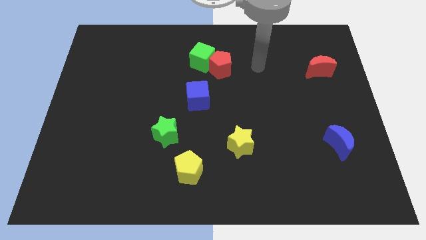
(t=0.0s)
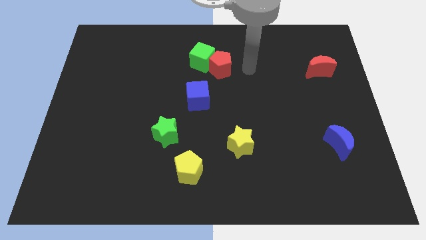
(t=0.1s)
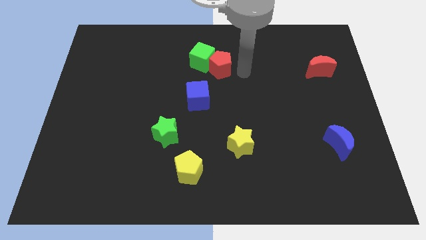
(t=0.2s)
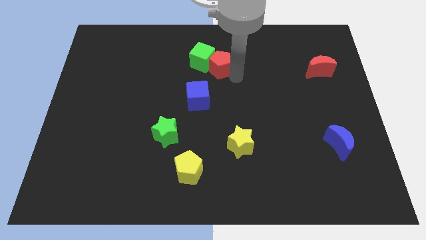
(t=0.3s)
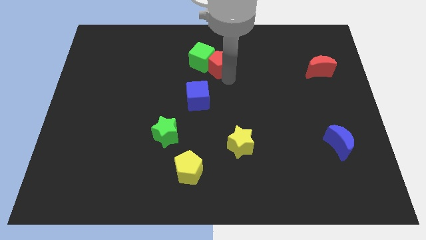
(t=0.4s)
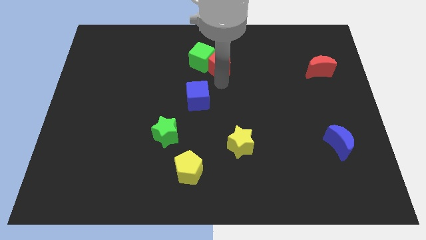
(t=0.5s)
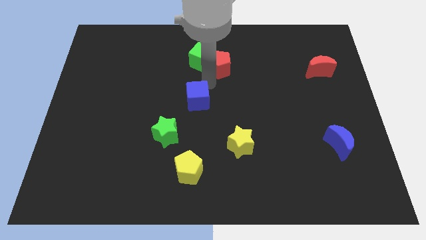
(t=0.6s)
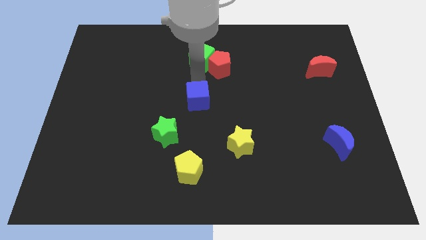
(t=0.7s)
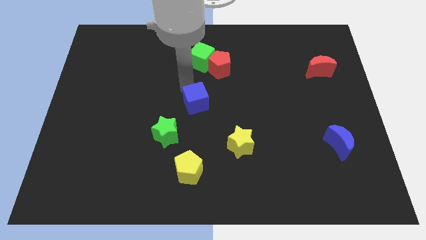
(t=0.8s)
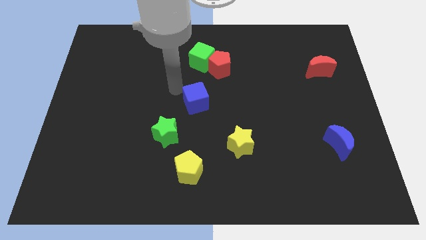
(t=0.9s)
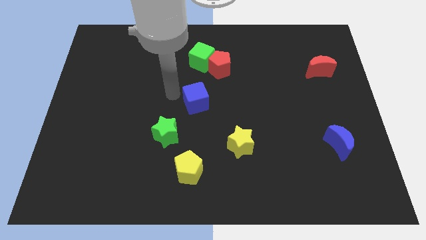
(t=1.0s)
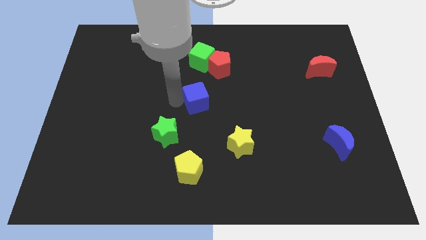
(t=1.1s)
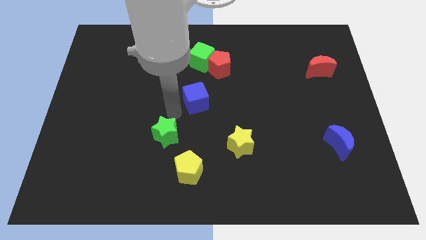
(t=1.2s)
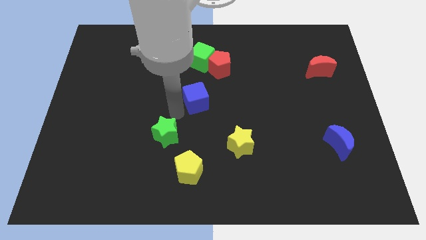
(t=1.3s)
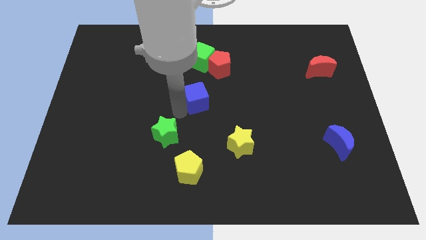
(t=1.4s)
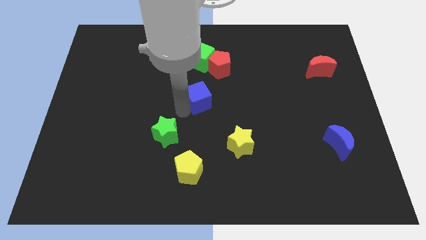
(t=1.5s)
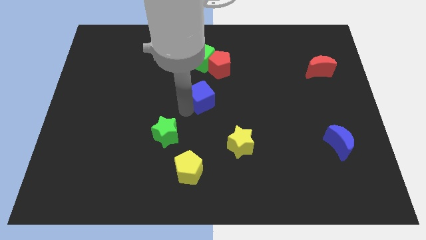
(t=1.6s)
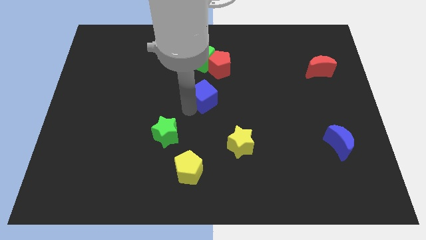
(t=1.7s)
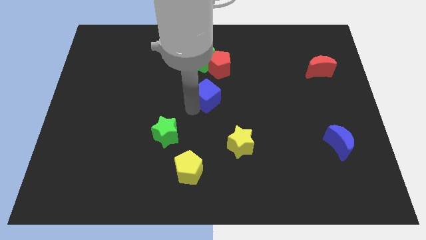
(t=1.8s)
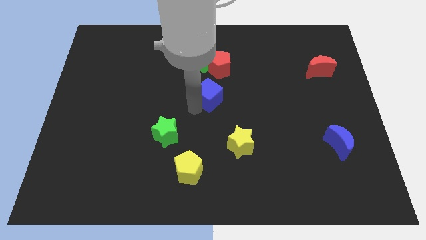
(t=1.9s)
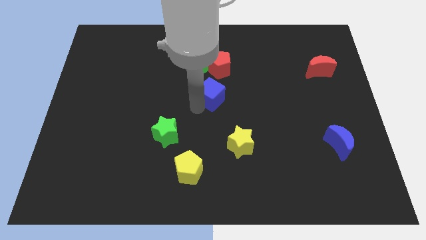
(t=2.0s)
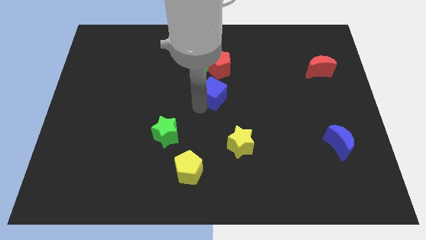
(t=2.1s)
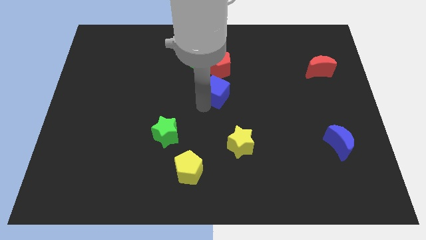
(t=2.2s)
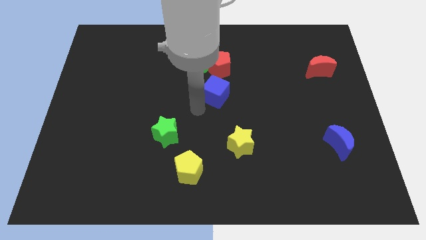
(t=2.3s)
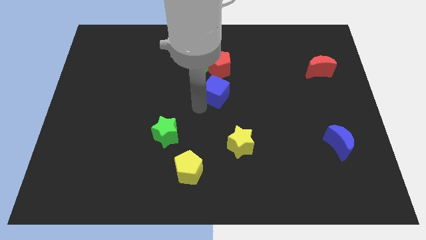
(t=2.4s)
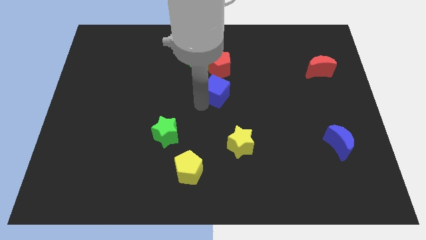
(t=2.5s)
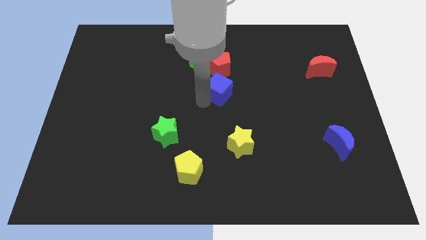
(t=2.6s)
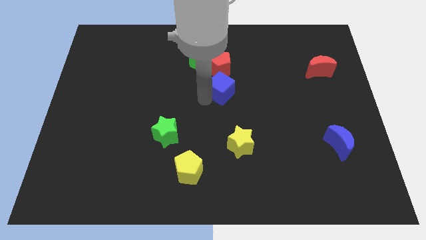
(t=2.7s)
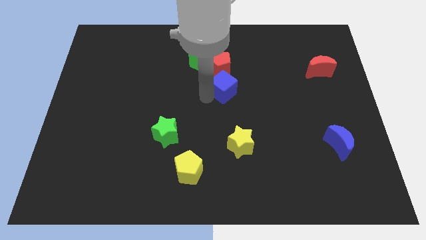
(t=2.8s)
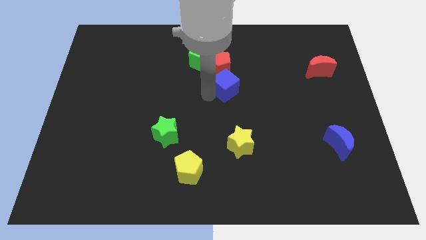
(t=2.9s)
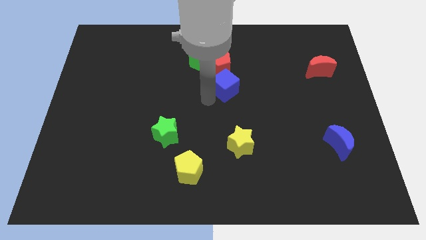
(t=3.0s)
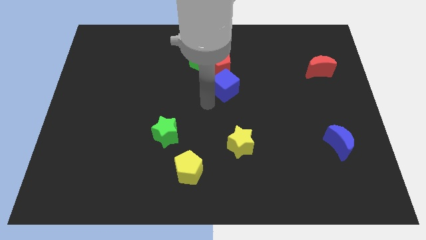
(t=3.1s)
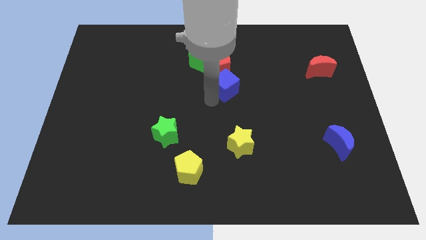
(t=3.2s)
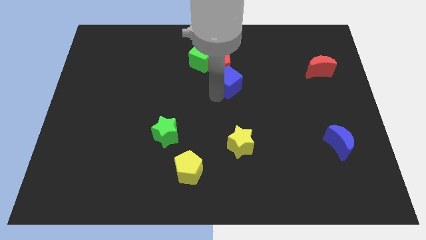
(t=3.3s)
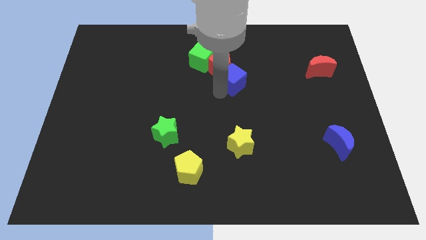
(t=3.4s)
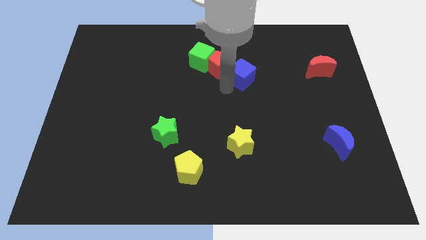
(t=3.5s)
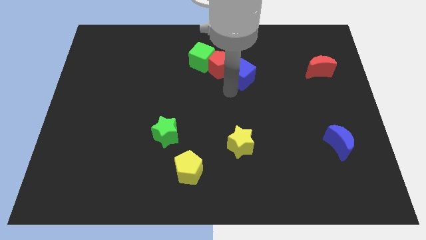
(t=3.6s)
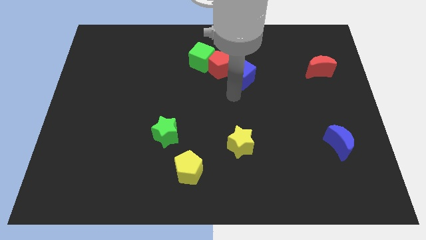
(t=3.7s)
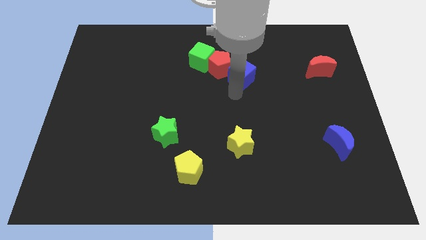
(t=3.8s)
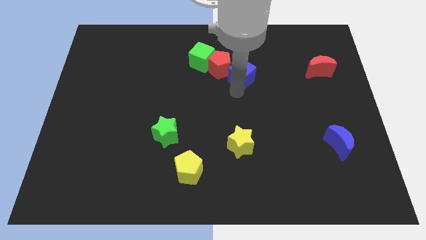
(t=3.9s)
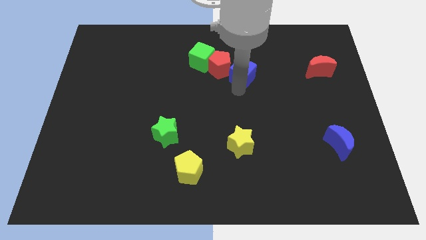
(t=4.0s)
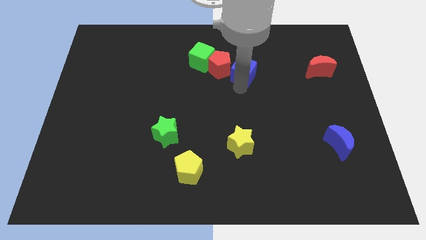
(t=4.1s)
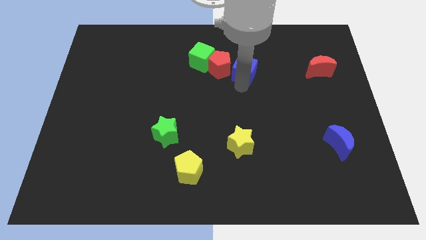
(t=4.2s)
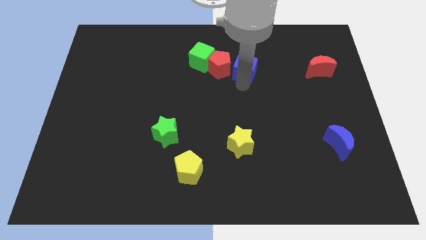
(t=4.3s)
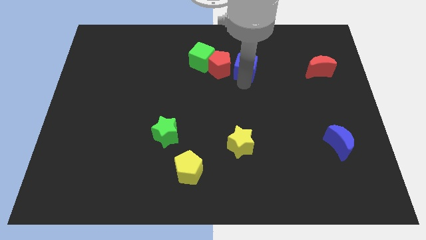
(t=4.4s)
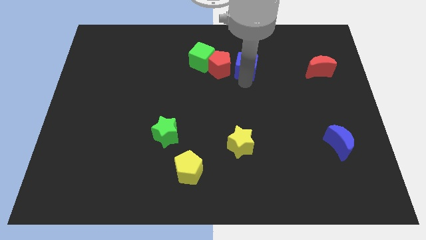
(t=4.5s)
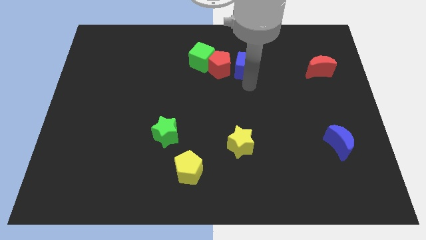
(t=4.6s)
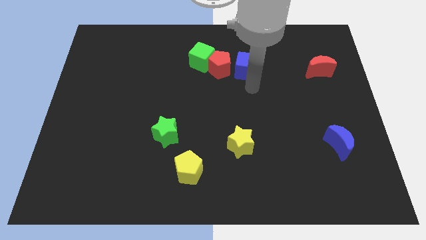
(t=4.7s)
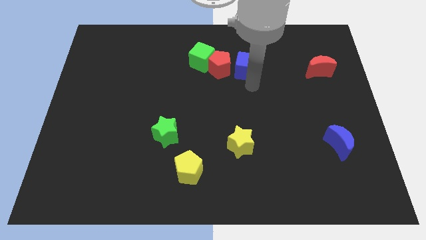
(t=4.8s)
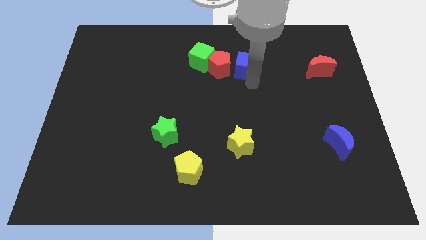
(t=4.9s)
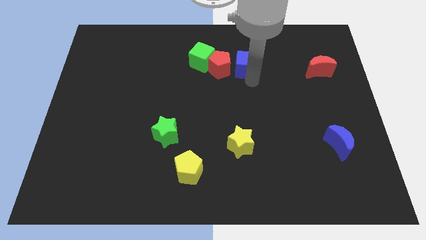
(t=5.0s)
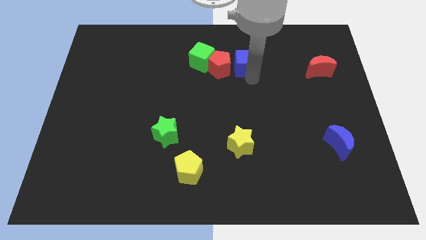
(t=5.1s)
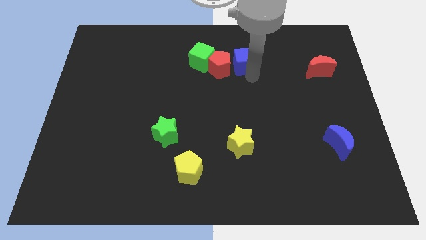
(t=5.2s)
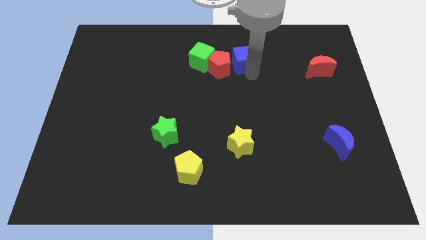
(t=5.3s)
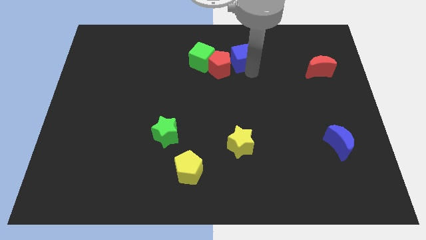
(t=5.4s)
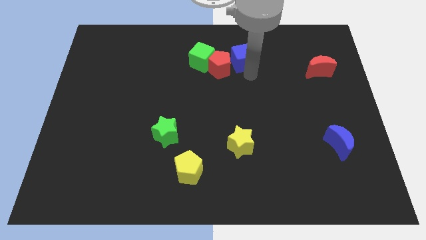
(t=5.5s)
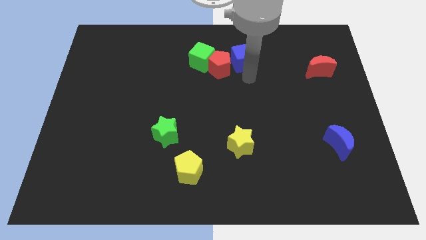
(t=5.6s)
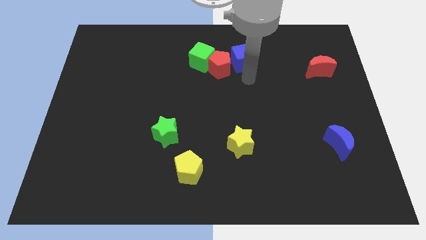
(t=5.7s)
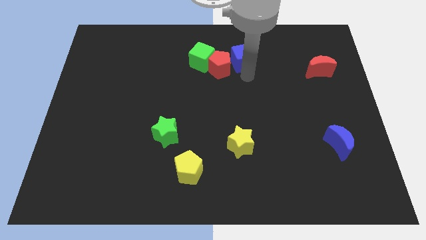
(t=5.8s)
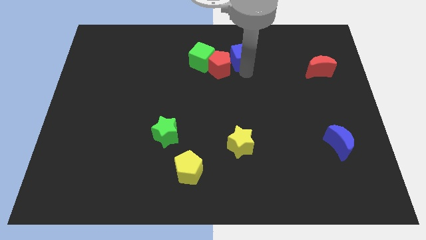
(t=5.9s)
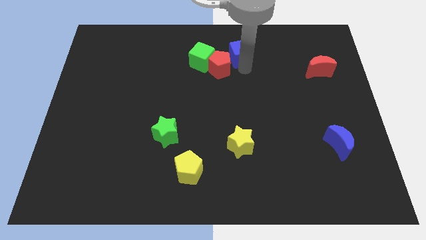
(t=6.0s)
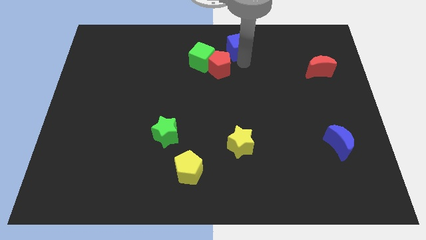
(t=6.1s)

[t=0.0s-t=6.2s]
move the blue cube to the top
